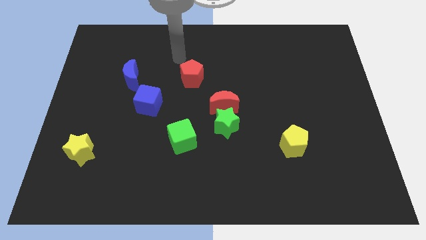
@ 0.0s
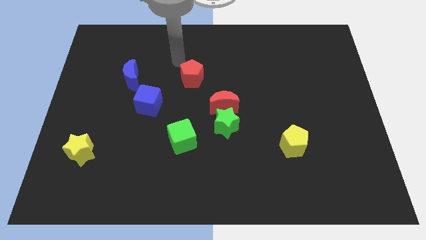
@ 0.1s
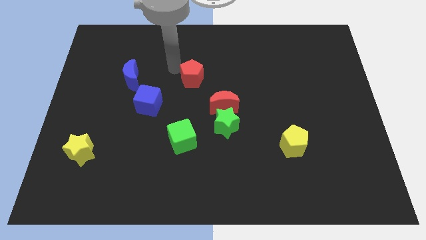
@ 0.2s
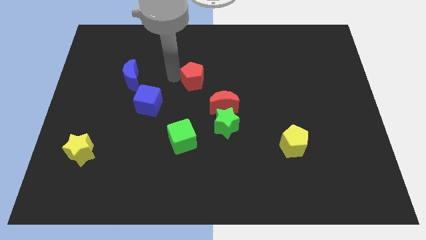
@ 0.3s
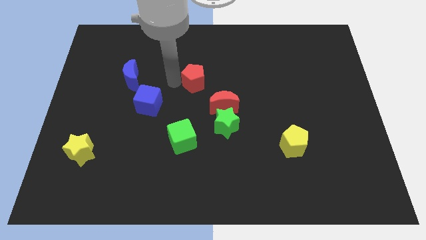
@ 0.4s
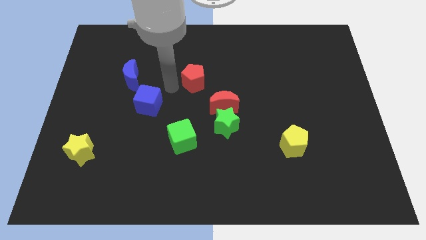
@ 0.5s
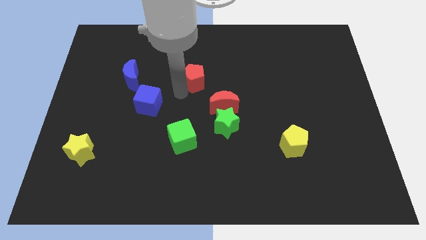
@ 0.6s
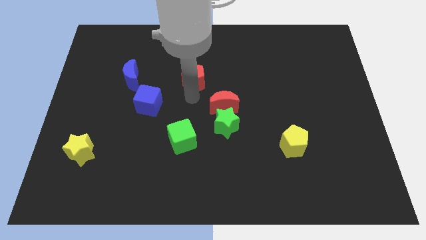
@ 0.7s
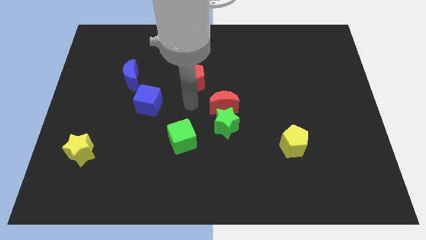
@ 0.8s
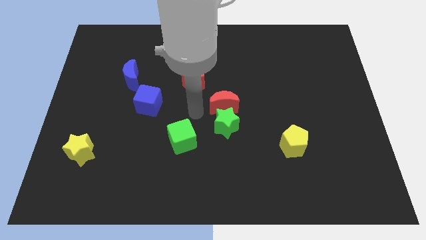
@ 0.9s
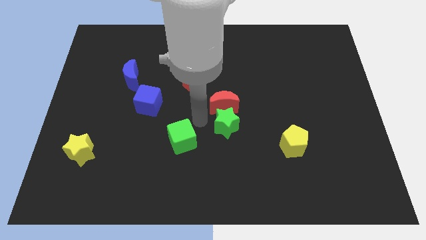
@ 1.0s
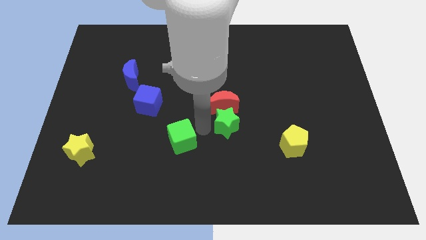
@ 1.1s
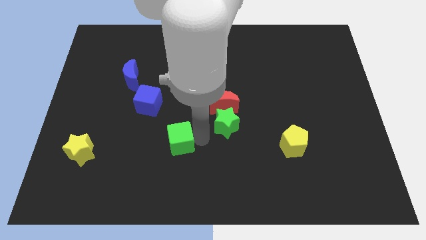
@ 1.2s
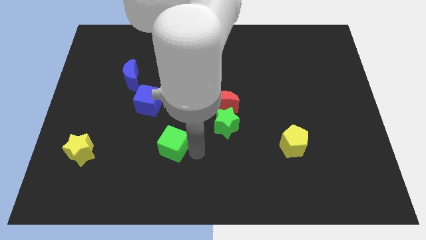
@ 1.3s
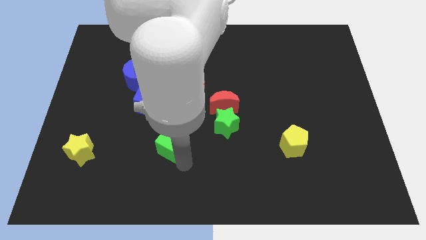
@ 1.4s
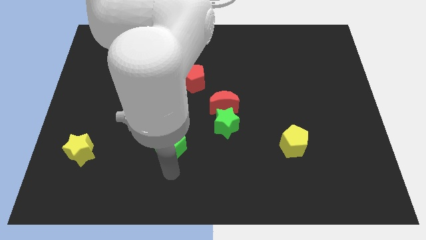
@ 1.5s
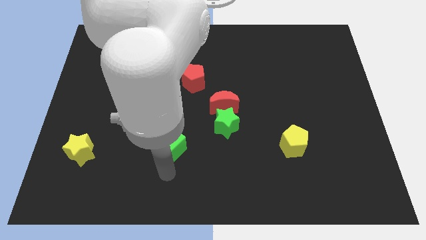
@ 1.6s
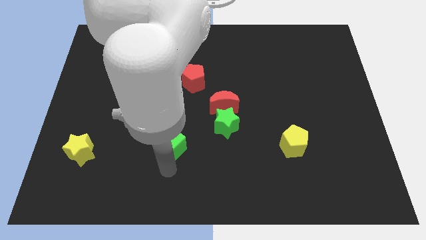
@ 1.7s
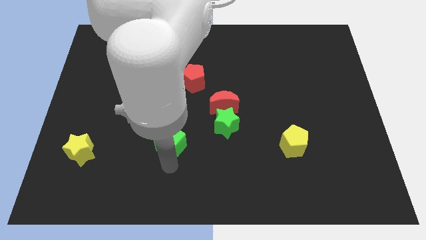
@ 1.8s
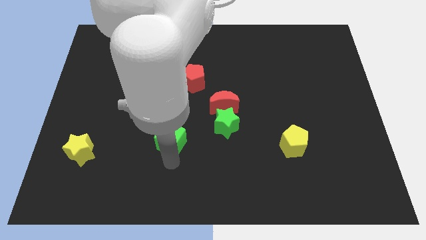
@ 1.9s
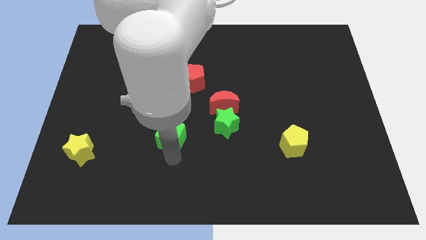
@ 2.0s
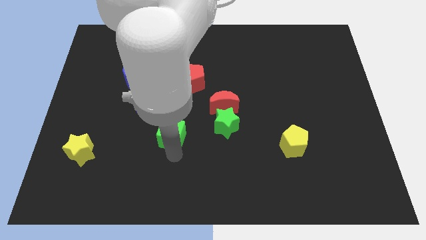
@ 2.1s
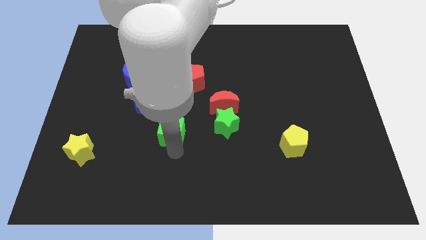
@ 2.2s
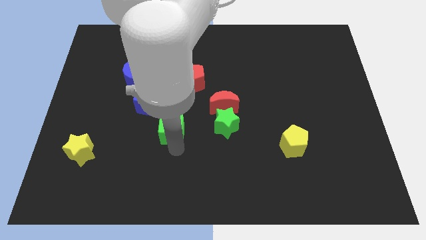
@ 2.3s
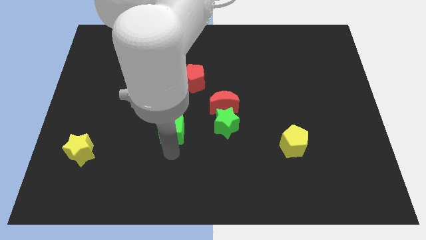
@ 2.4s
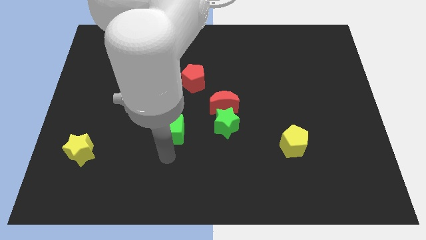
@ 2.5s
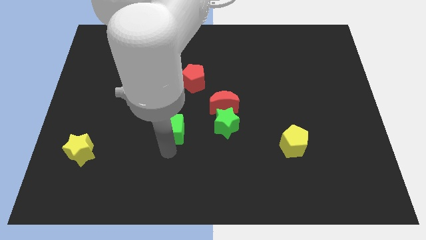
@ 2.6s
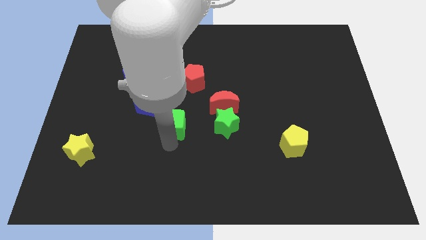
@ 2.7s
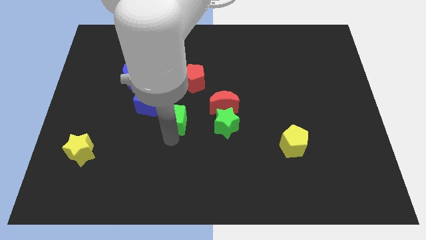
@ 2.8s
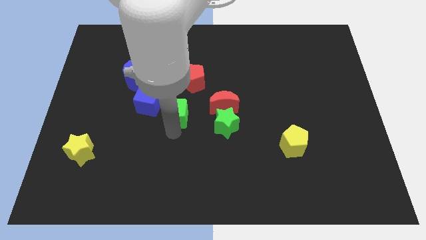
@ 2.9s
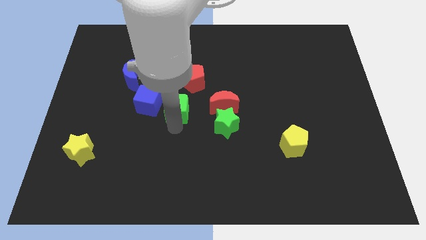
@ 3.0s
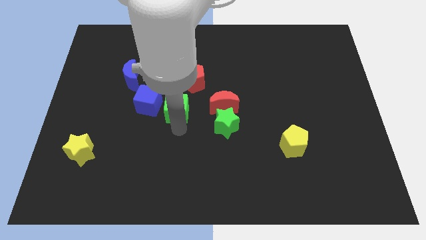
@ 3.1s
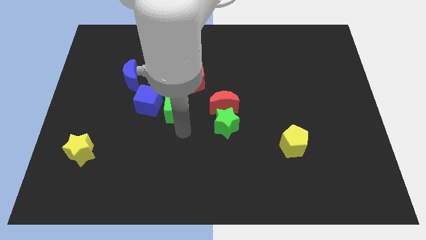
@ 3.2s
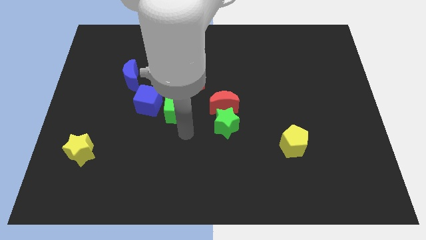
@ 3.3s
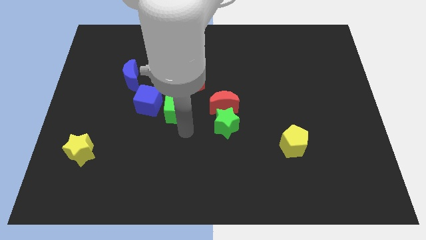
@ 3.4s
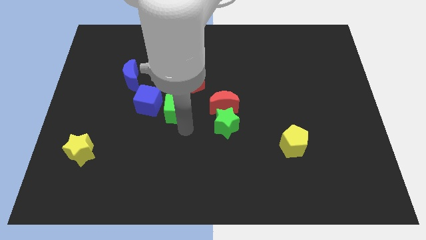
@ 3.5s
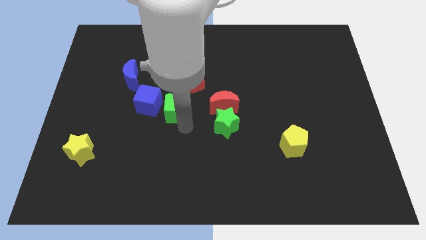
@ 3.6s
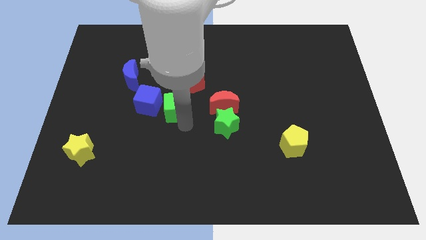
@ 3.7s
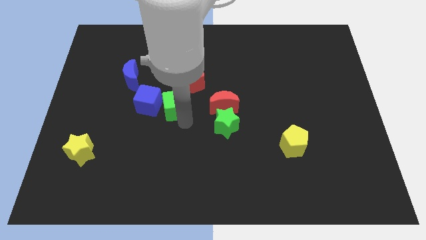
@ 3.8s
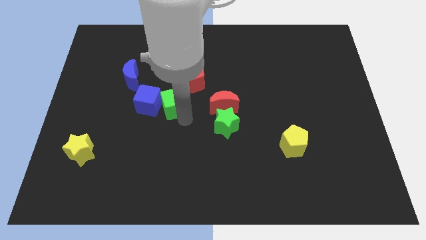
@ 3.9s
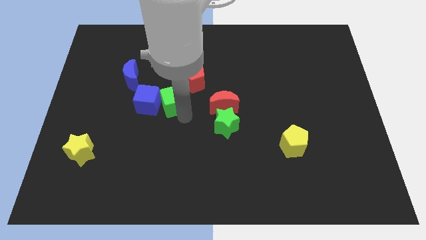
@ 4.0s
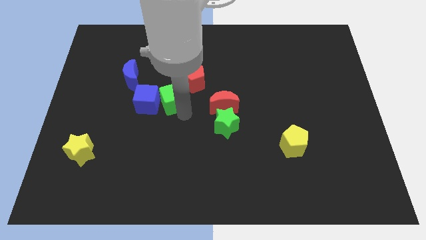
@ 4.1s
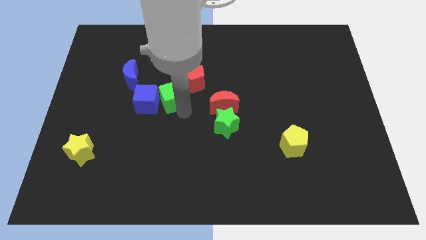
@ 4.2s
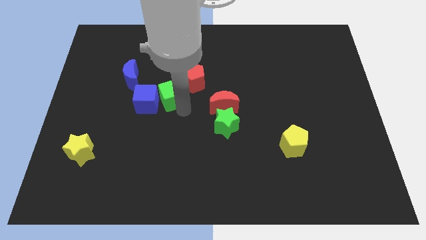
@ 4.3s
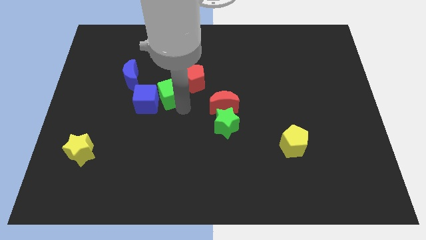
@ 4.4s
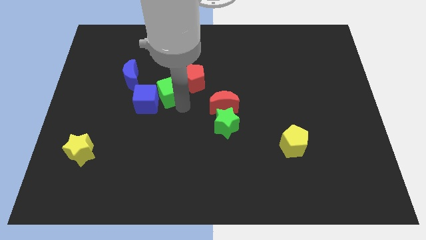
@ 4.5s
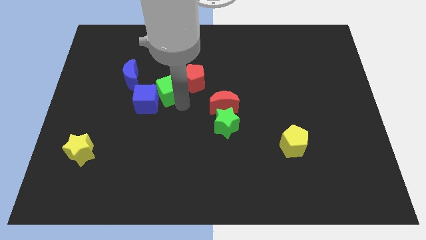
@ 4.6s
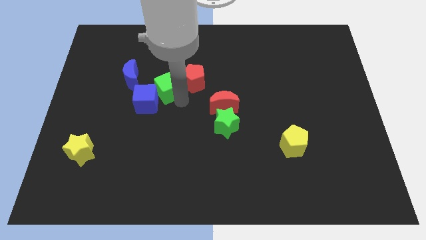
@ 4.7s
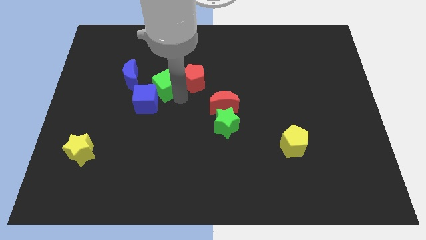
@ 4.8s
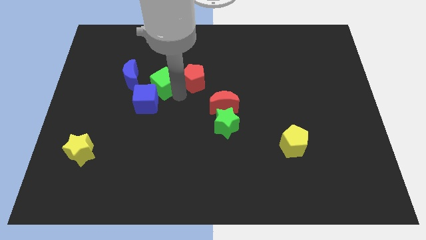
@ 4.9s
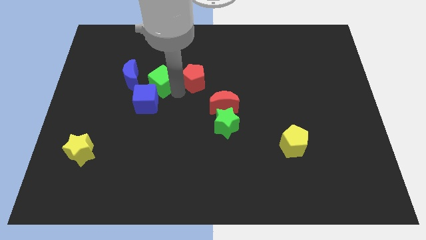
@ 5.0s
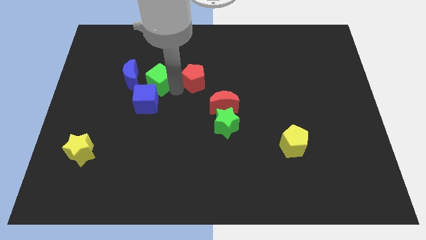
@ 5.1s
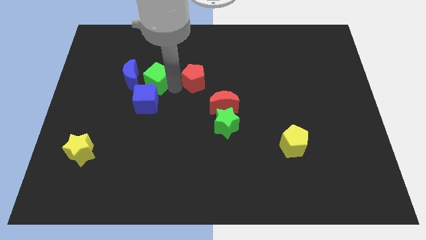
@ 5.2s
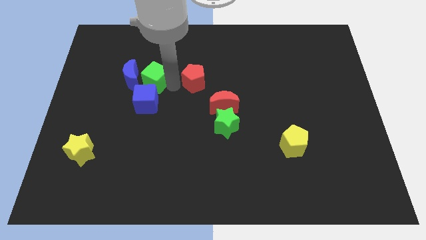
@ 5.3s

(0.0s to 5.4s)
slide the green cube close to the blue moon

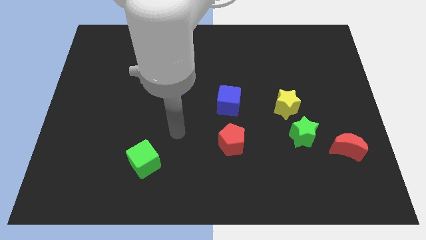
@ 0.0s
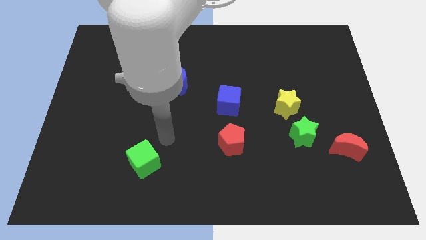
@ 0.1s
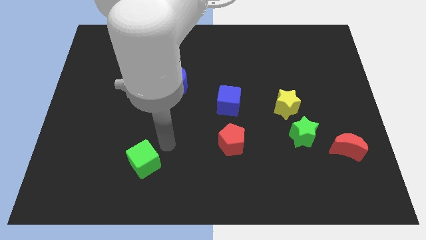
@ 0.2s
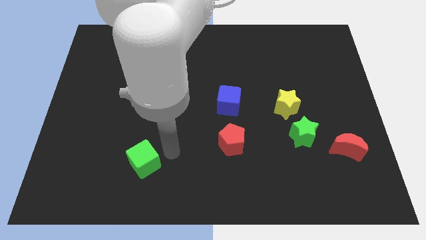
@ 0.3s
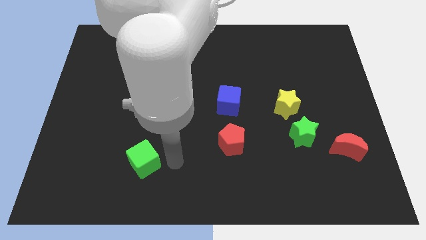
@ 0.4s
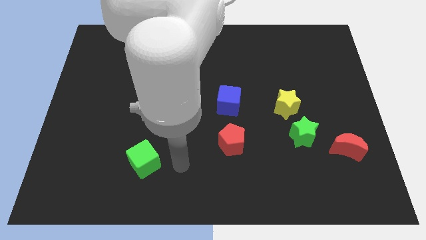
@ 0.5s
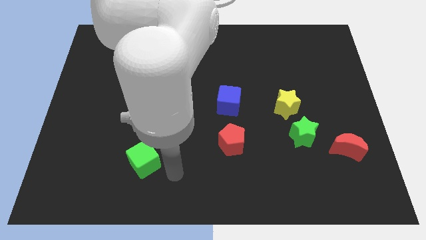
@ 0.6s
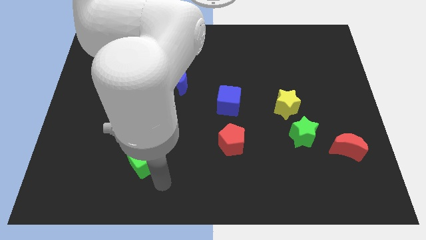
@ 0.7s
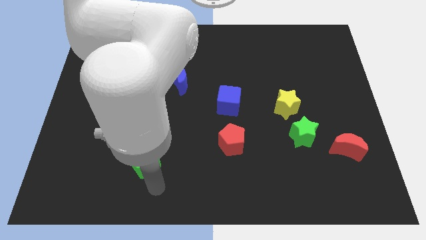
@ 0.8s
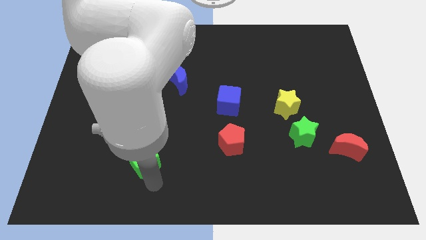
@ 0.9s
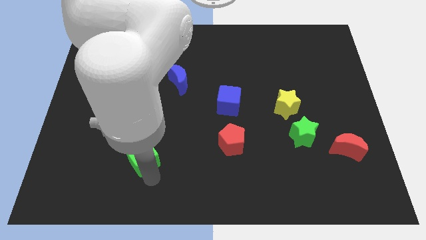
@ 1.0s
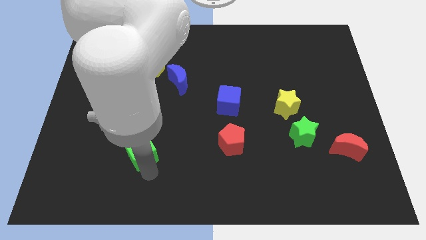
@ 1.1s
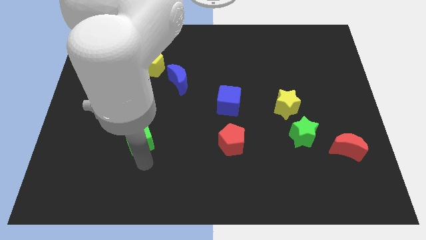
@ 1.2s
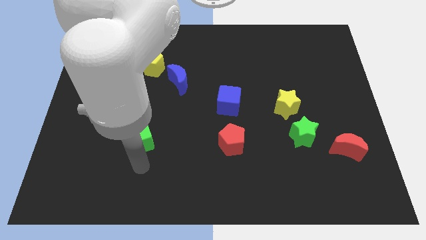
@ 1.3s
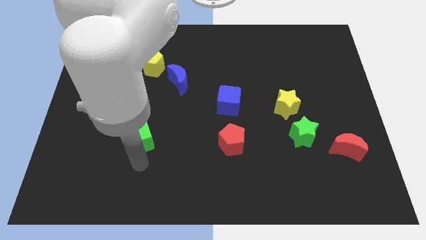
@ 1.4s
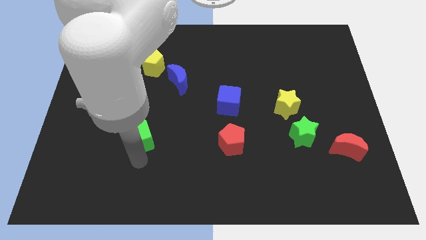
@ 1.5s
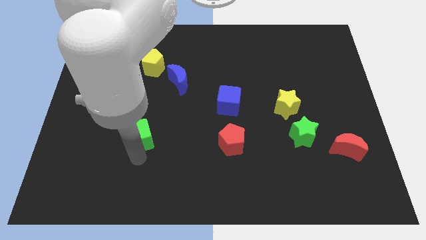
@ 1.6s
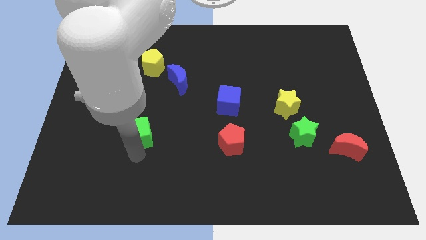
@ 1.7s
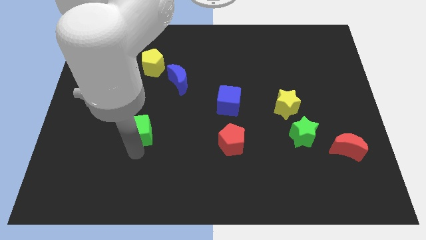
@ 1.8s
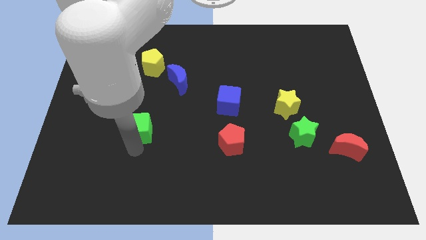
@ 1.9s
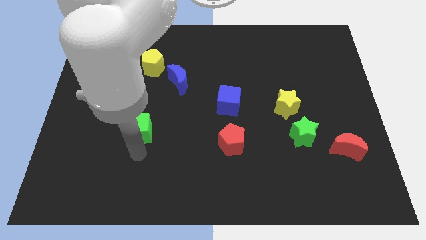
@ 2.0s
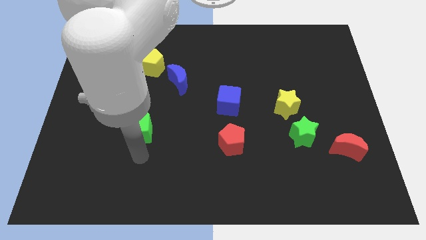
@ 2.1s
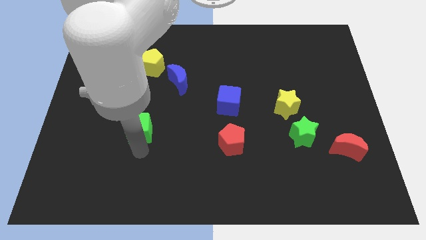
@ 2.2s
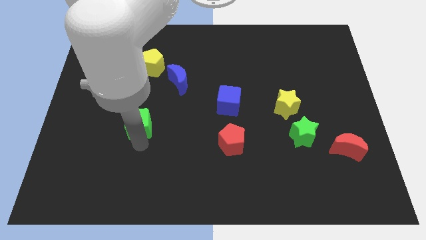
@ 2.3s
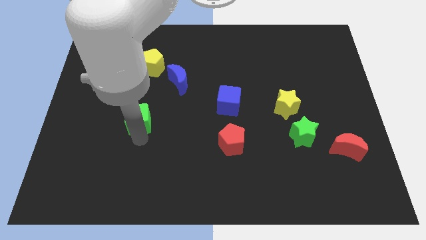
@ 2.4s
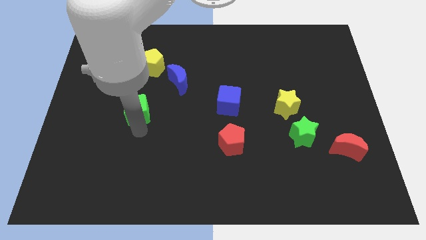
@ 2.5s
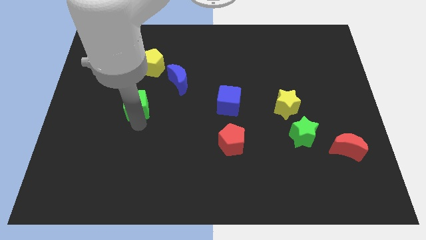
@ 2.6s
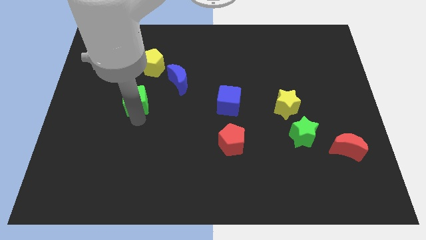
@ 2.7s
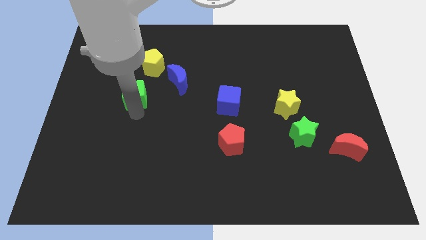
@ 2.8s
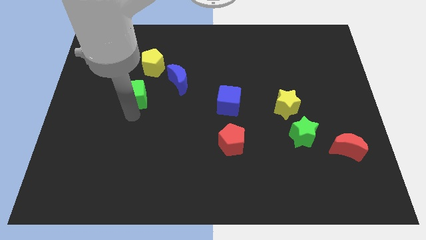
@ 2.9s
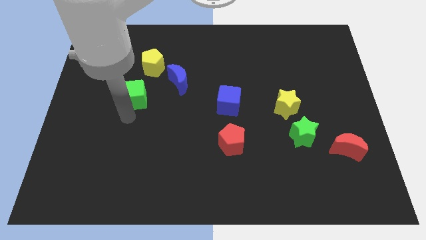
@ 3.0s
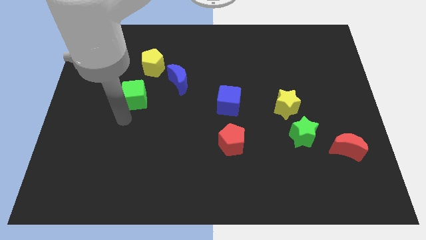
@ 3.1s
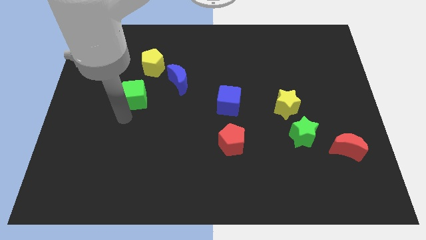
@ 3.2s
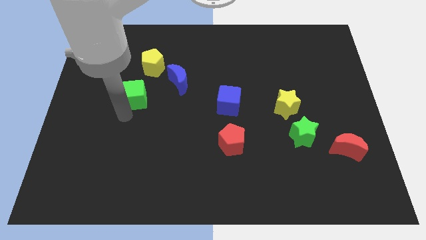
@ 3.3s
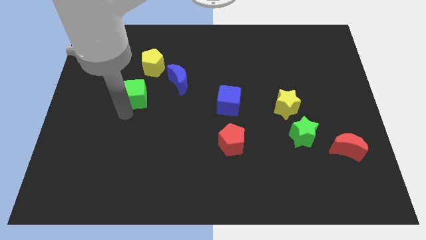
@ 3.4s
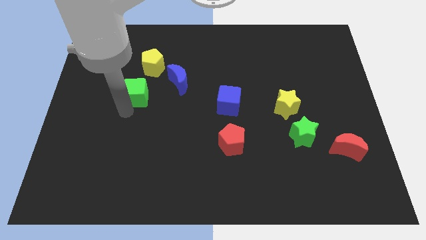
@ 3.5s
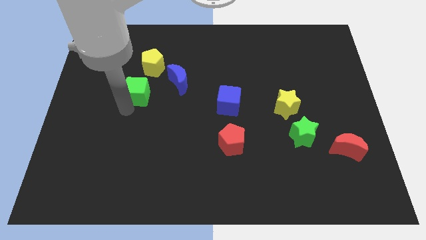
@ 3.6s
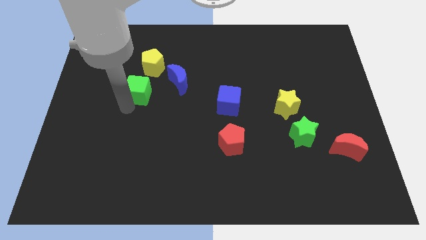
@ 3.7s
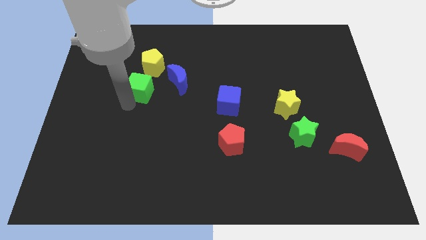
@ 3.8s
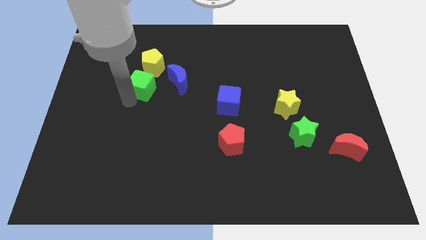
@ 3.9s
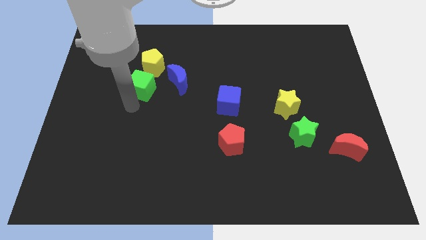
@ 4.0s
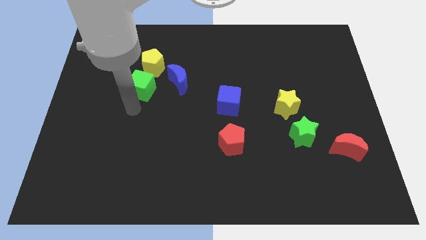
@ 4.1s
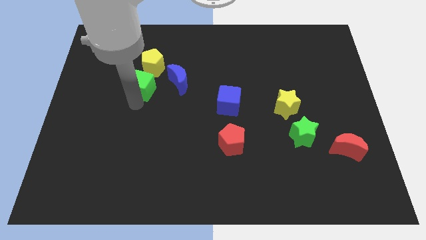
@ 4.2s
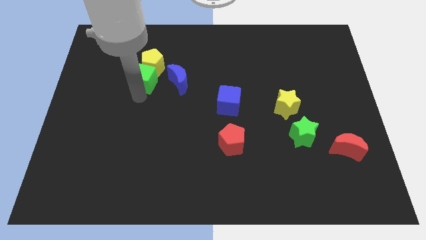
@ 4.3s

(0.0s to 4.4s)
put the green cube towards the yellow pentagon
